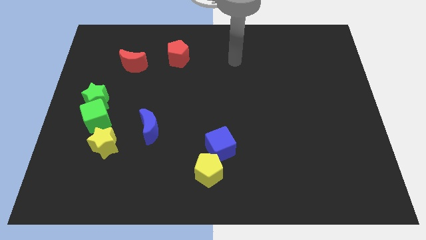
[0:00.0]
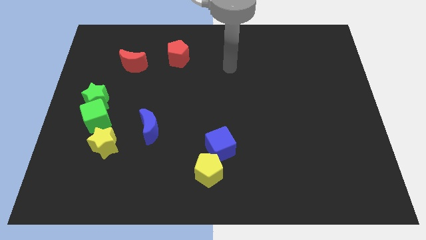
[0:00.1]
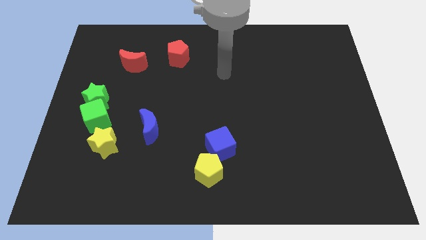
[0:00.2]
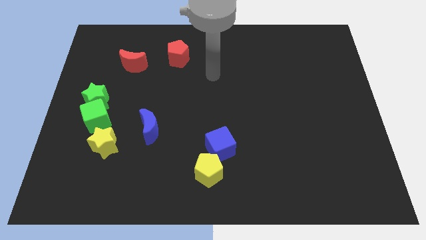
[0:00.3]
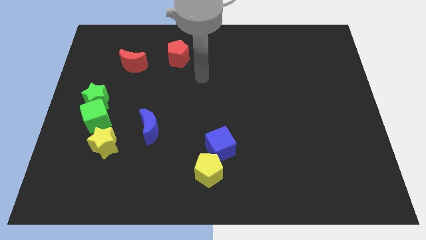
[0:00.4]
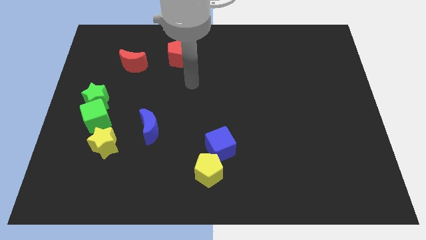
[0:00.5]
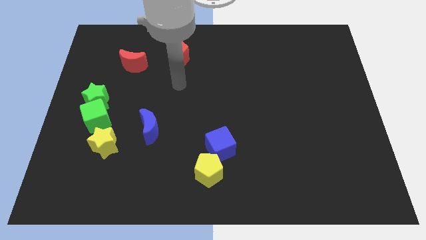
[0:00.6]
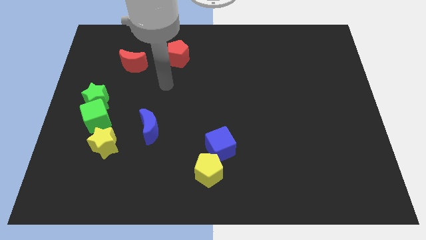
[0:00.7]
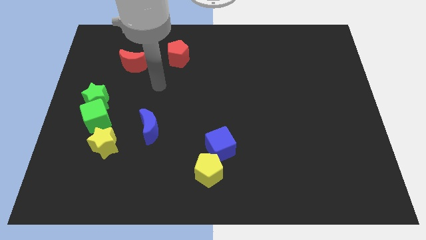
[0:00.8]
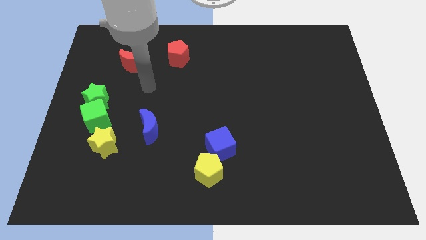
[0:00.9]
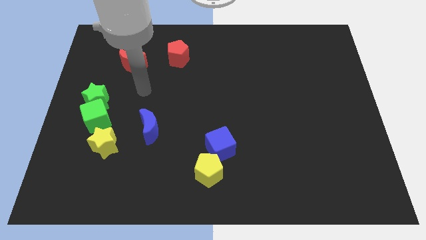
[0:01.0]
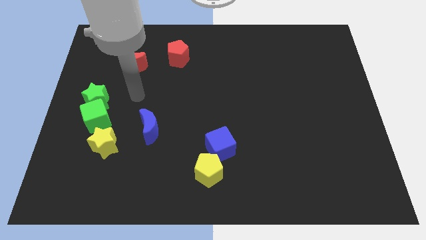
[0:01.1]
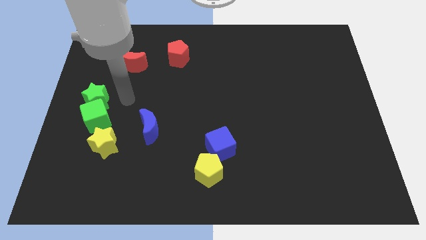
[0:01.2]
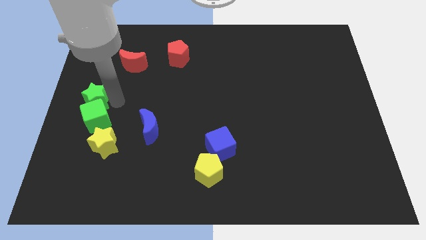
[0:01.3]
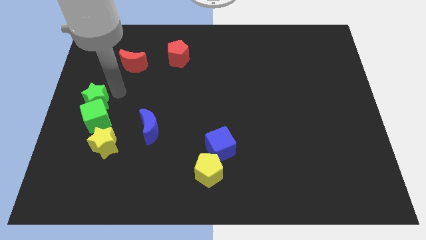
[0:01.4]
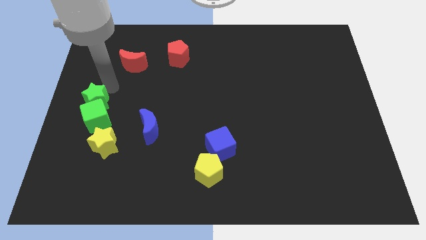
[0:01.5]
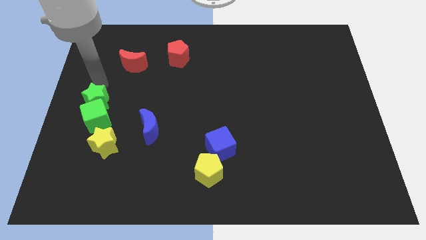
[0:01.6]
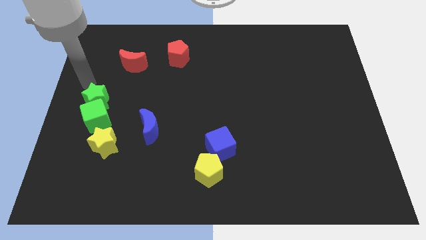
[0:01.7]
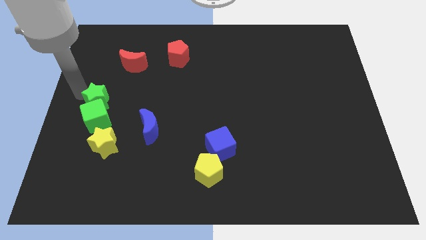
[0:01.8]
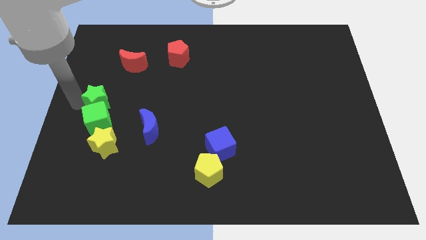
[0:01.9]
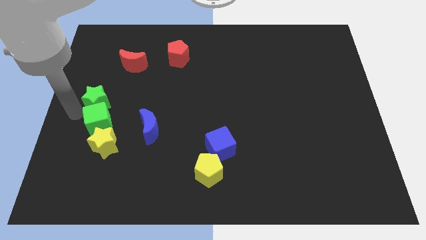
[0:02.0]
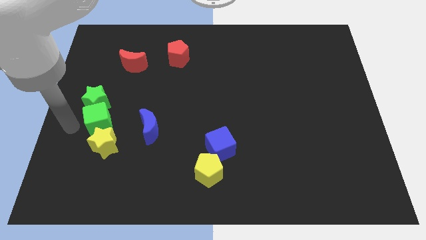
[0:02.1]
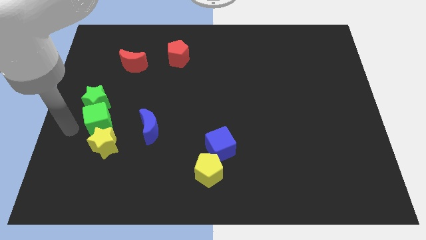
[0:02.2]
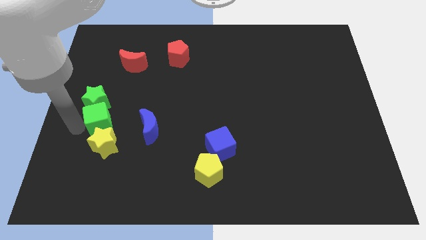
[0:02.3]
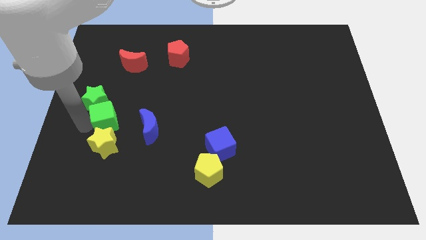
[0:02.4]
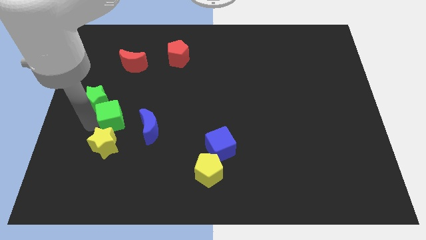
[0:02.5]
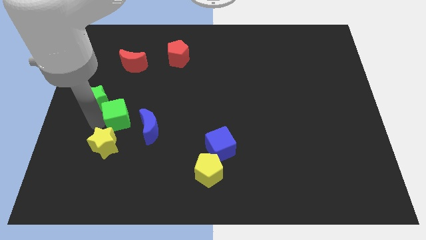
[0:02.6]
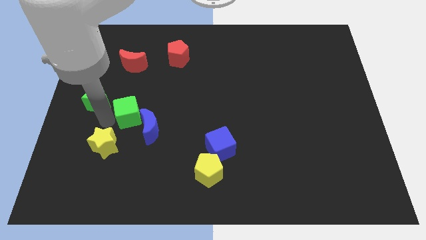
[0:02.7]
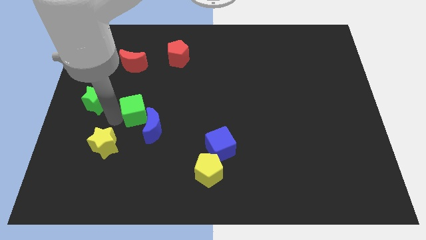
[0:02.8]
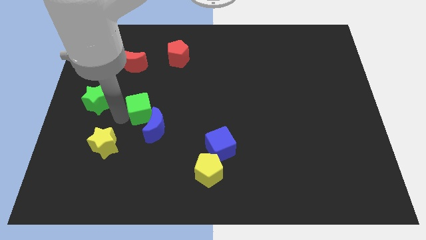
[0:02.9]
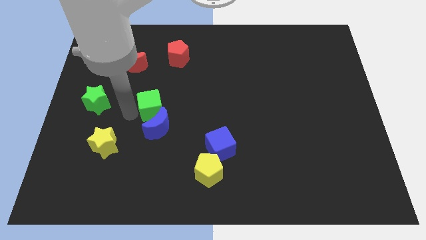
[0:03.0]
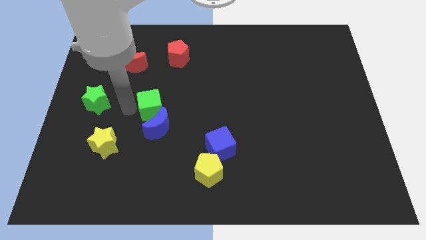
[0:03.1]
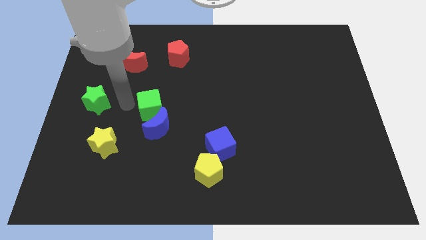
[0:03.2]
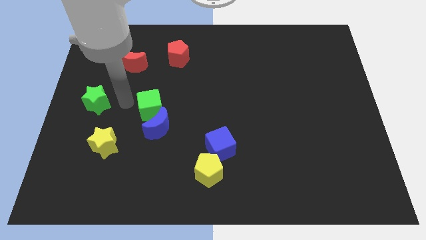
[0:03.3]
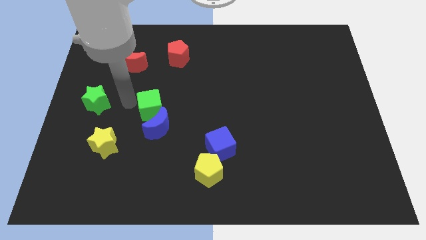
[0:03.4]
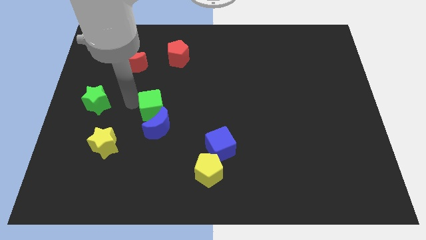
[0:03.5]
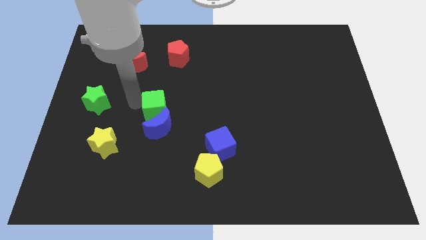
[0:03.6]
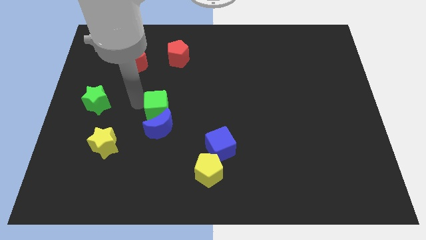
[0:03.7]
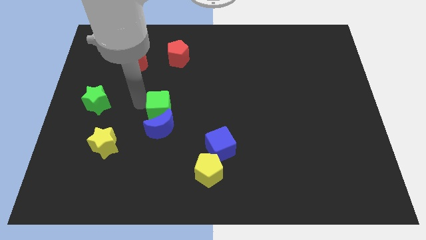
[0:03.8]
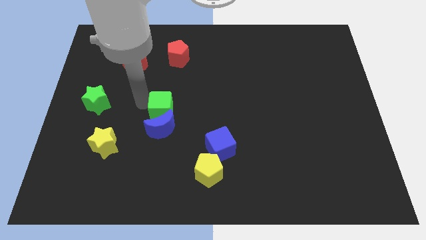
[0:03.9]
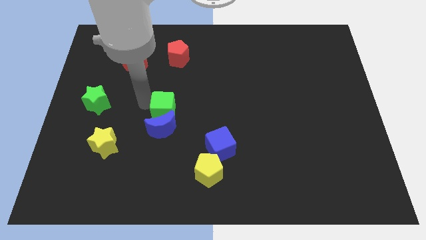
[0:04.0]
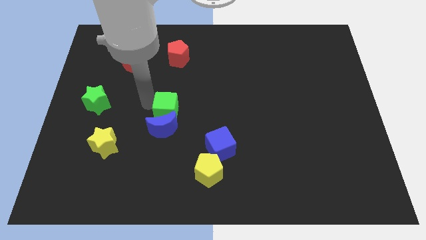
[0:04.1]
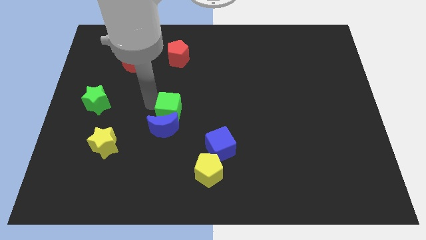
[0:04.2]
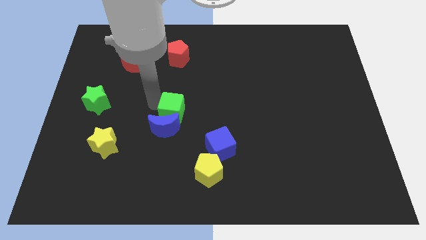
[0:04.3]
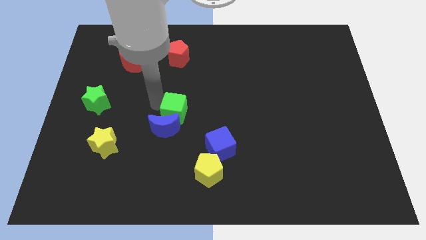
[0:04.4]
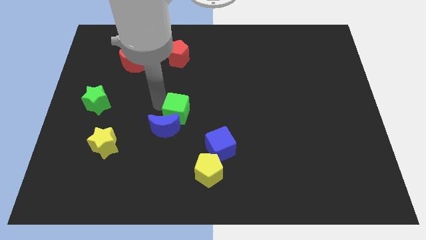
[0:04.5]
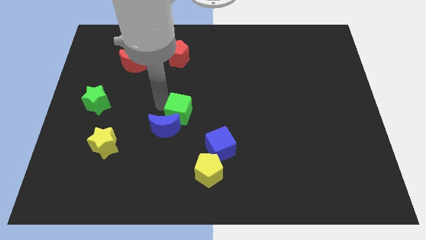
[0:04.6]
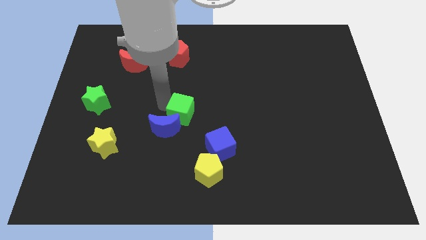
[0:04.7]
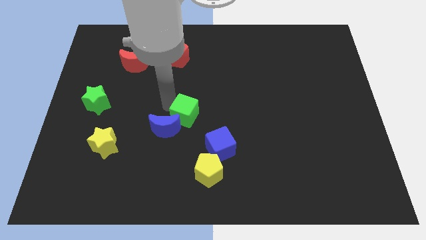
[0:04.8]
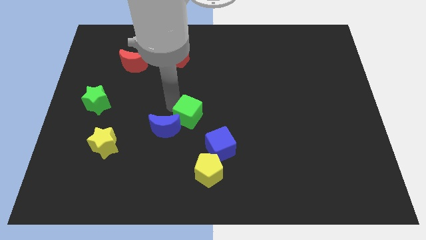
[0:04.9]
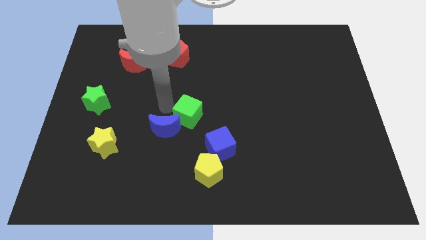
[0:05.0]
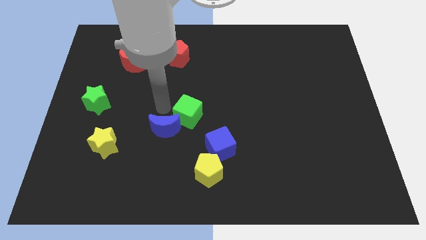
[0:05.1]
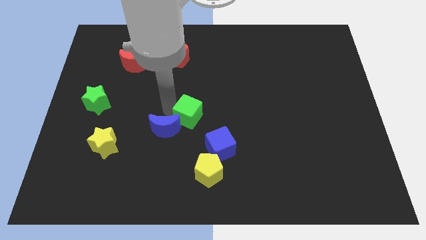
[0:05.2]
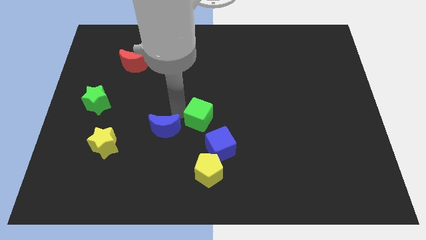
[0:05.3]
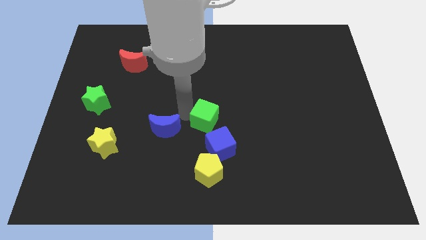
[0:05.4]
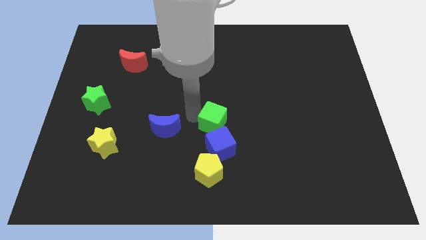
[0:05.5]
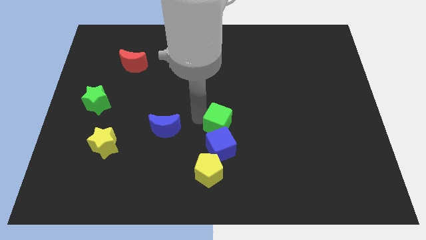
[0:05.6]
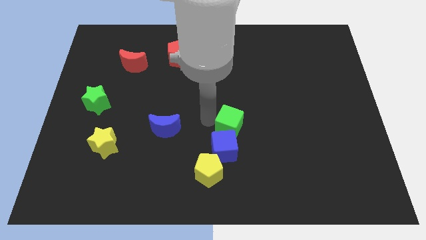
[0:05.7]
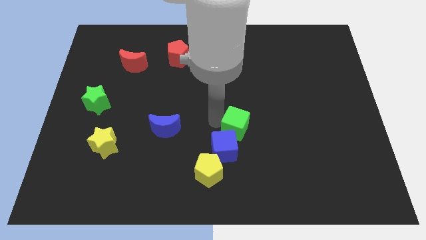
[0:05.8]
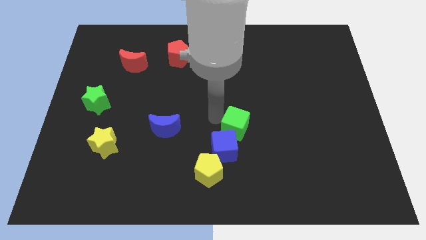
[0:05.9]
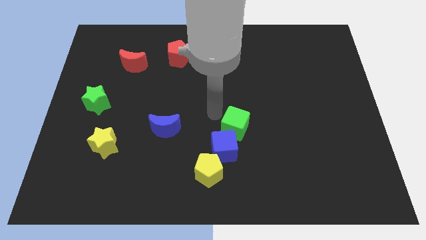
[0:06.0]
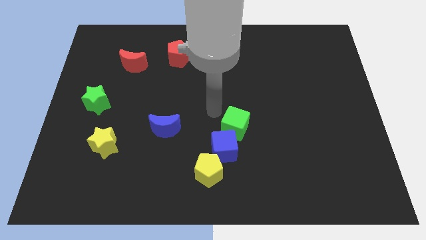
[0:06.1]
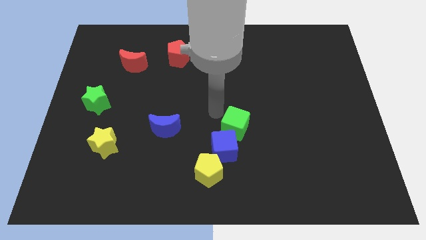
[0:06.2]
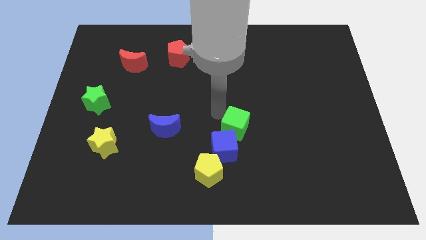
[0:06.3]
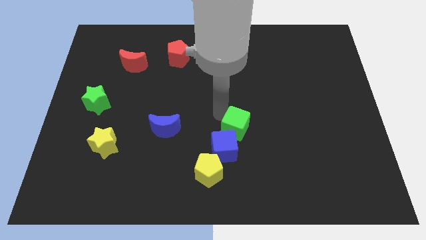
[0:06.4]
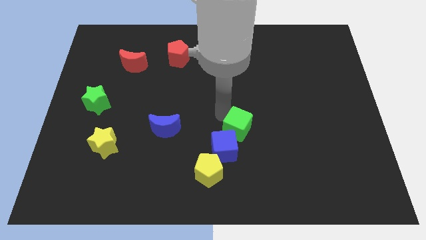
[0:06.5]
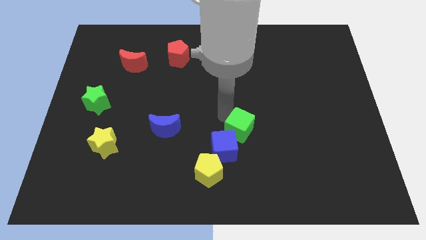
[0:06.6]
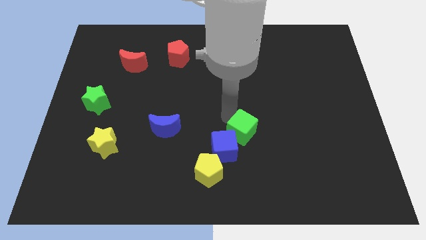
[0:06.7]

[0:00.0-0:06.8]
put the green cube right of the blue cube

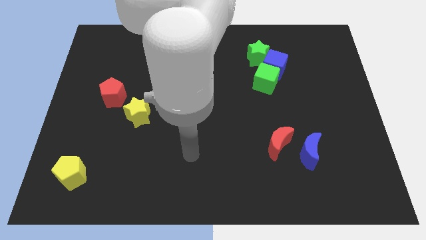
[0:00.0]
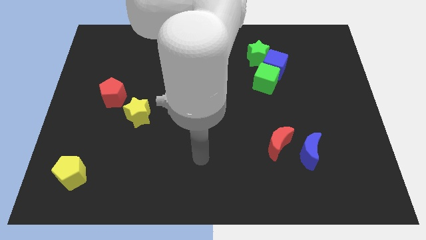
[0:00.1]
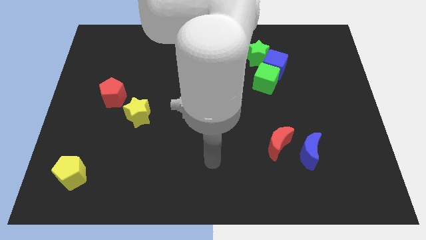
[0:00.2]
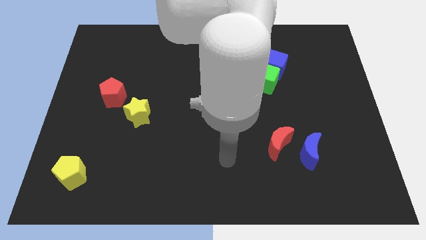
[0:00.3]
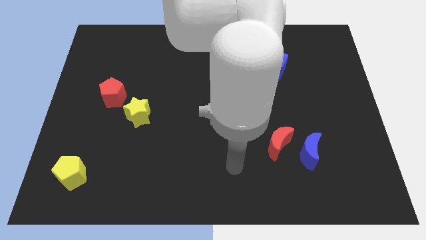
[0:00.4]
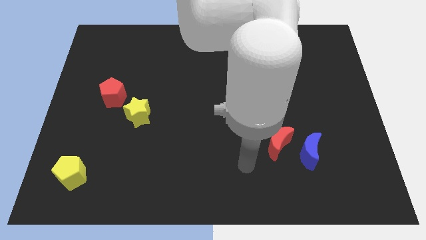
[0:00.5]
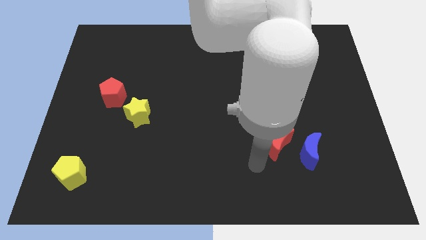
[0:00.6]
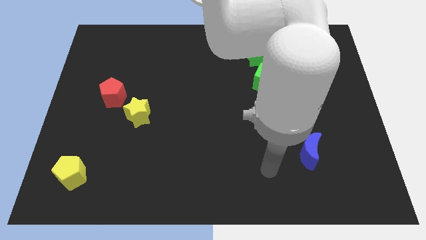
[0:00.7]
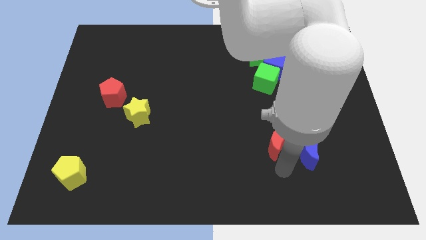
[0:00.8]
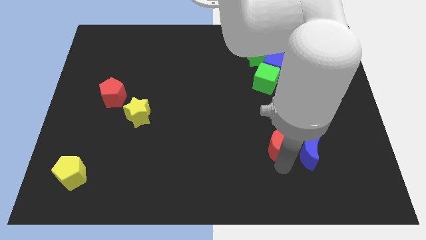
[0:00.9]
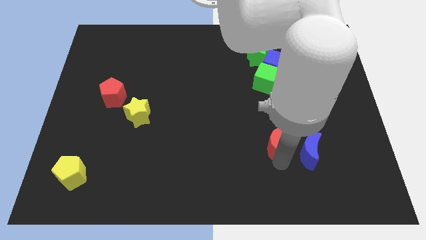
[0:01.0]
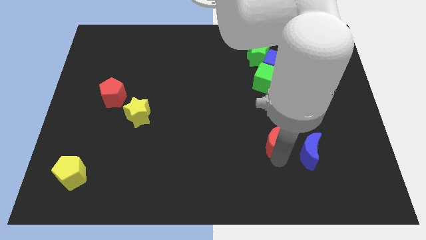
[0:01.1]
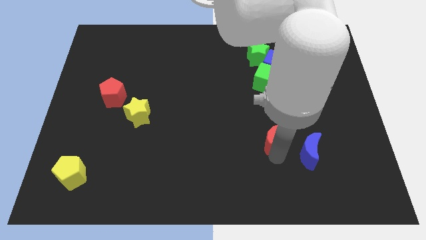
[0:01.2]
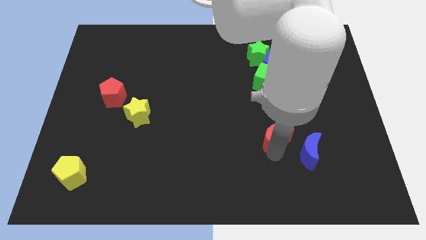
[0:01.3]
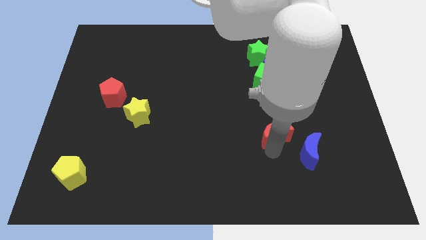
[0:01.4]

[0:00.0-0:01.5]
put the red moon below the green cube
